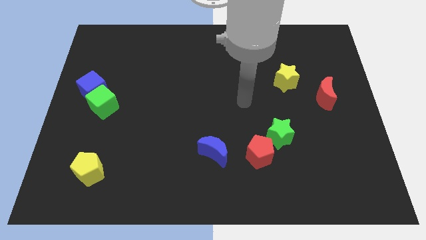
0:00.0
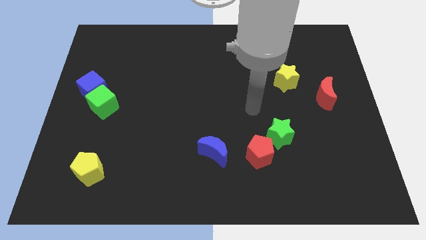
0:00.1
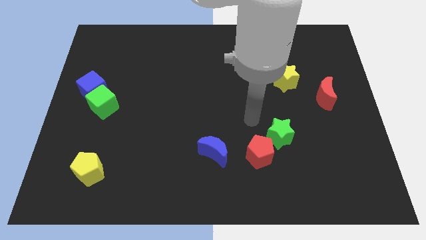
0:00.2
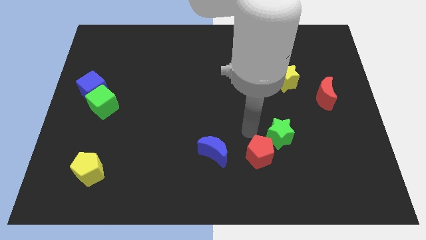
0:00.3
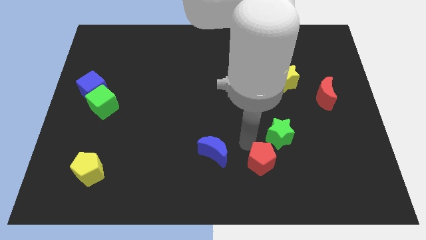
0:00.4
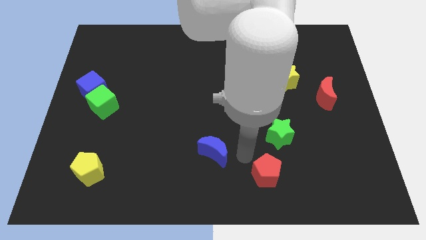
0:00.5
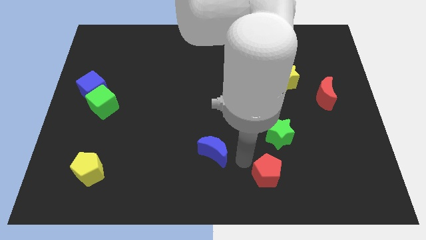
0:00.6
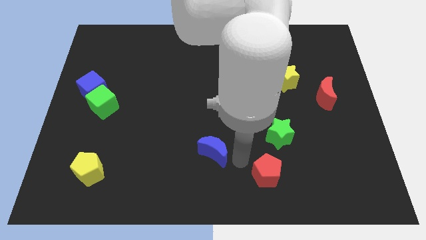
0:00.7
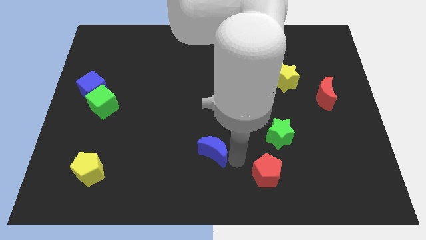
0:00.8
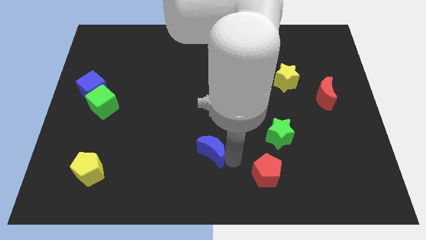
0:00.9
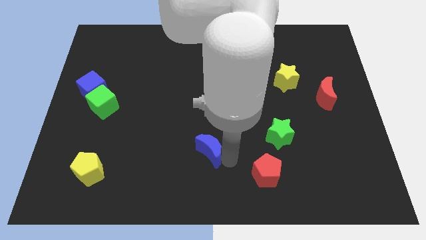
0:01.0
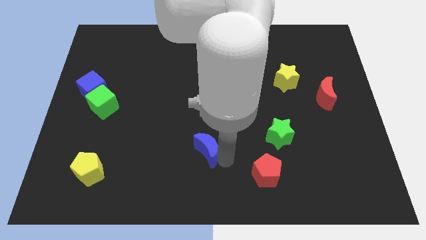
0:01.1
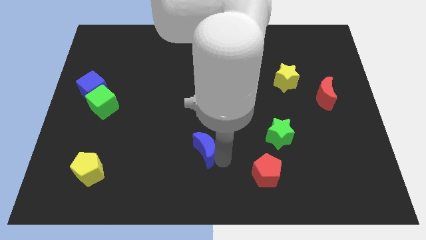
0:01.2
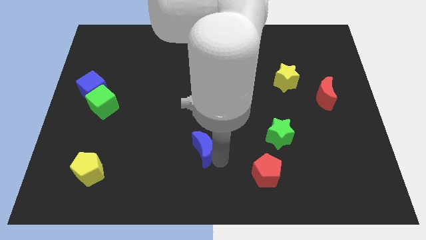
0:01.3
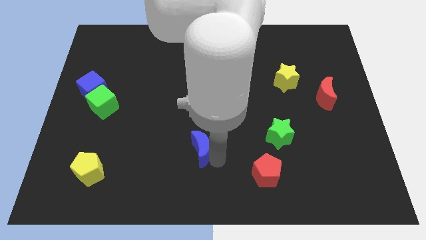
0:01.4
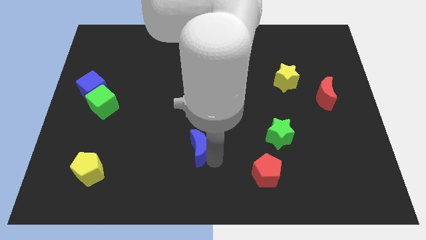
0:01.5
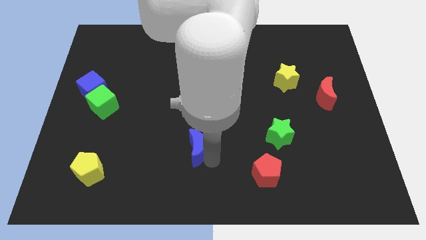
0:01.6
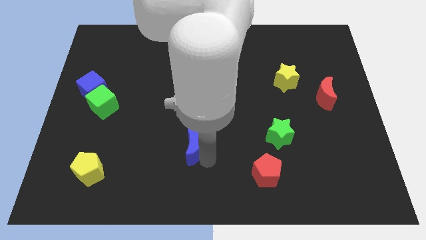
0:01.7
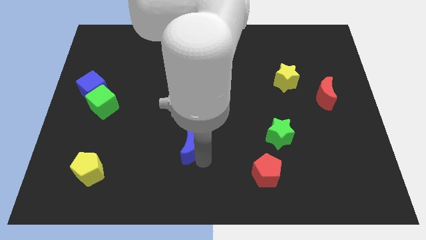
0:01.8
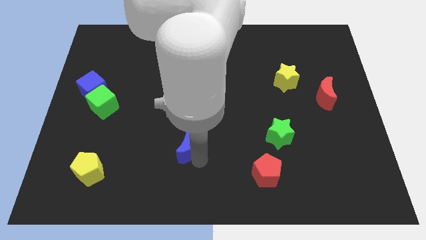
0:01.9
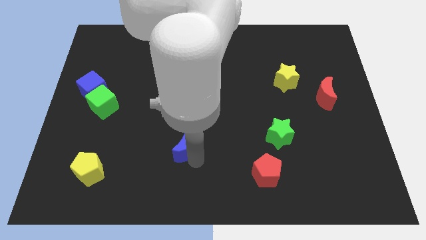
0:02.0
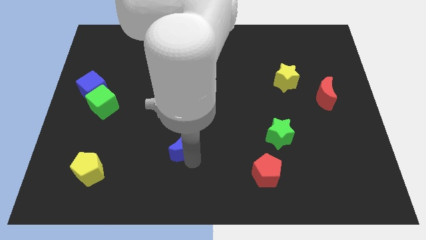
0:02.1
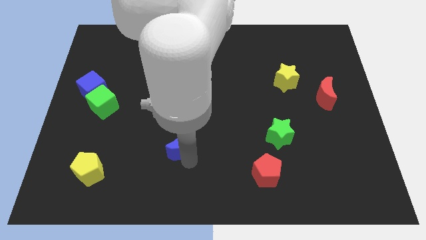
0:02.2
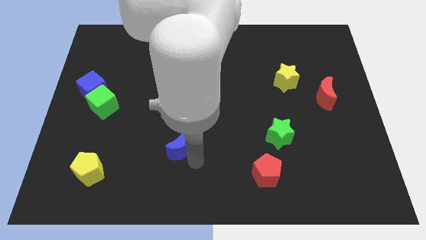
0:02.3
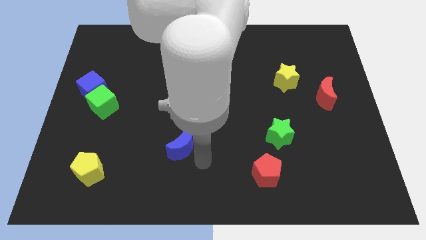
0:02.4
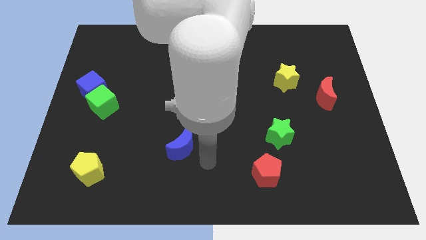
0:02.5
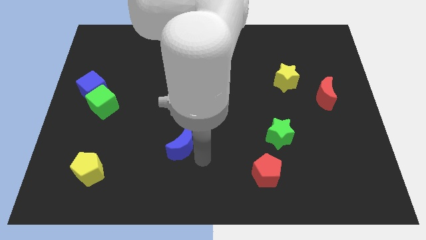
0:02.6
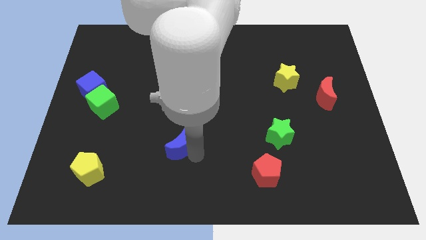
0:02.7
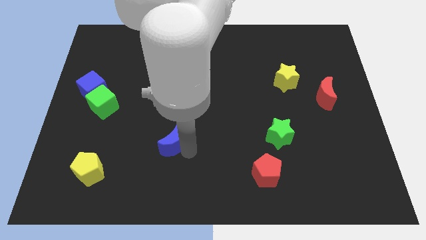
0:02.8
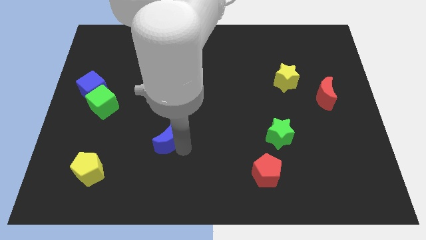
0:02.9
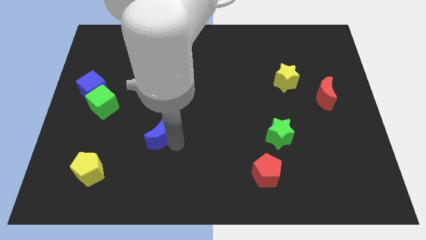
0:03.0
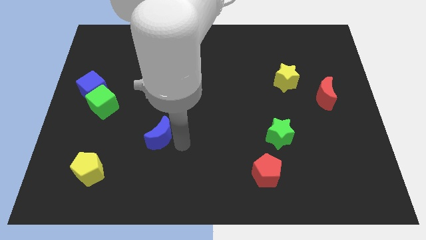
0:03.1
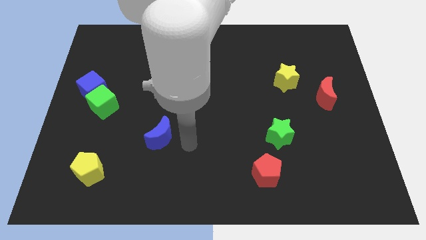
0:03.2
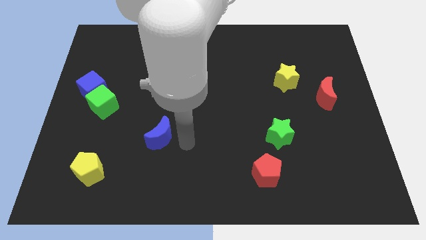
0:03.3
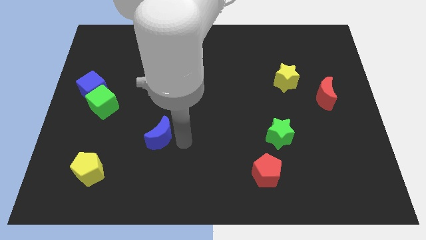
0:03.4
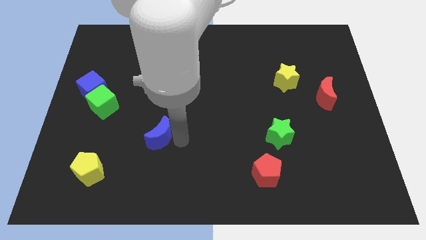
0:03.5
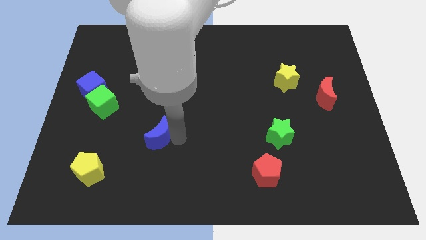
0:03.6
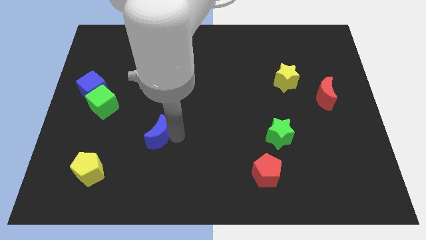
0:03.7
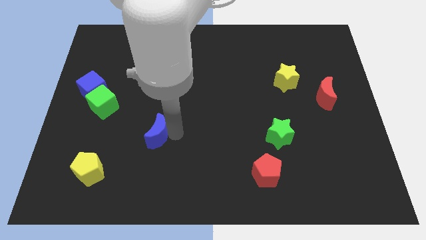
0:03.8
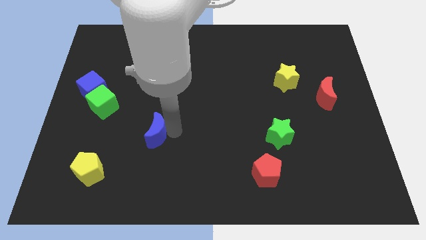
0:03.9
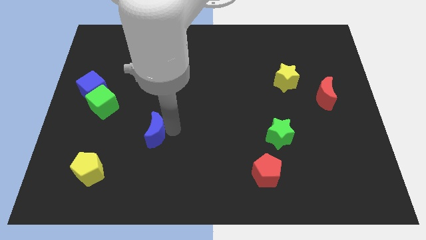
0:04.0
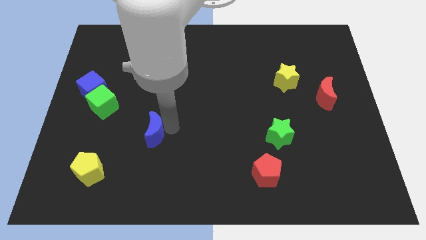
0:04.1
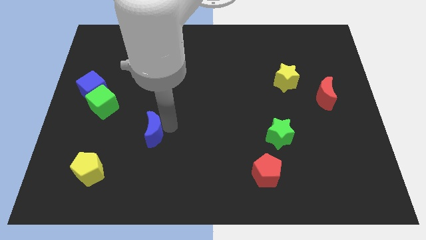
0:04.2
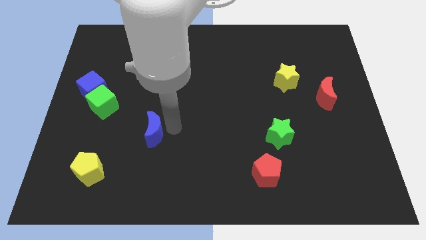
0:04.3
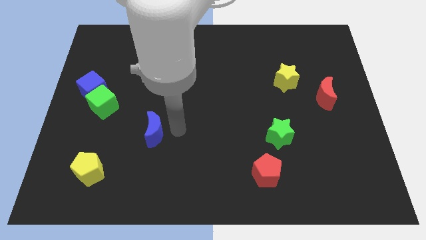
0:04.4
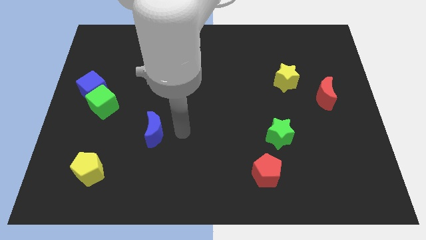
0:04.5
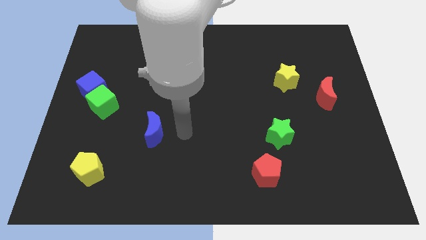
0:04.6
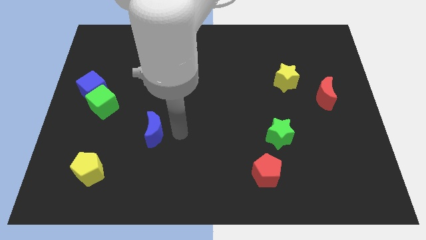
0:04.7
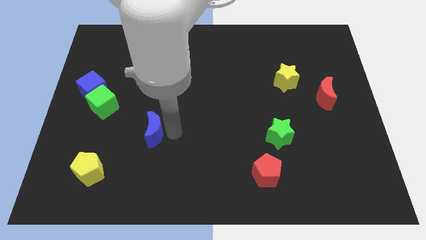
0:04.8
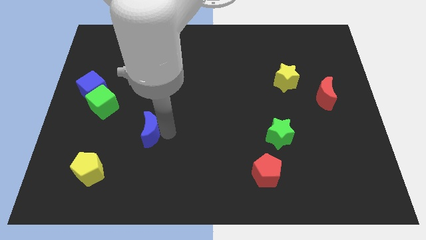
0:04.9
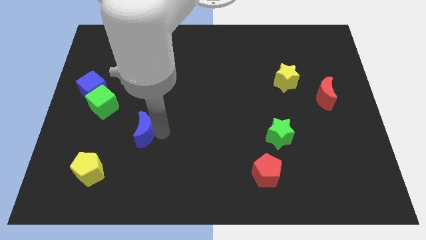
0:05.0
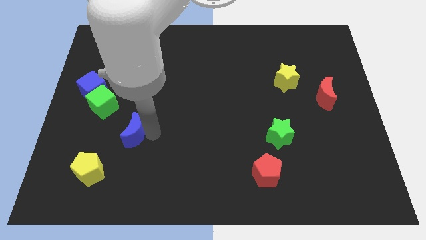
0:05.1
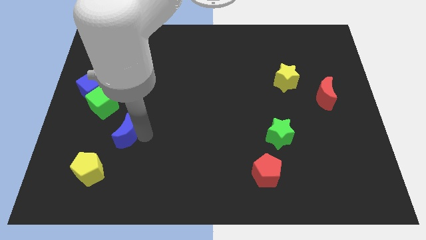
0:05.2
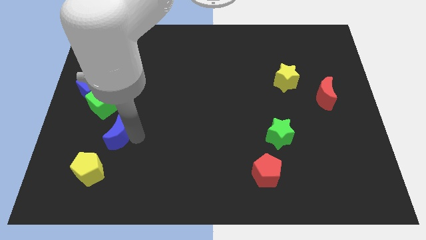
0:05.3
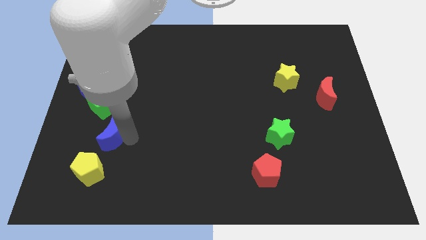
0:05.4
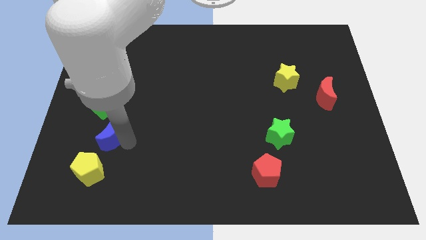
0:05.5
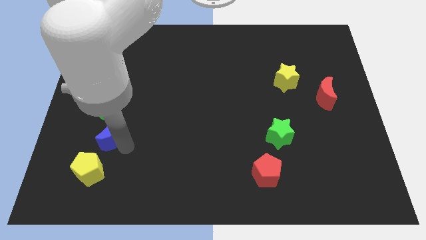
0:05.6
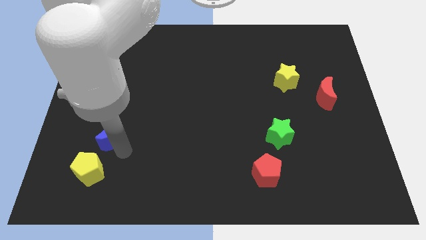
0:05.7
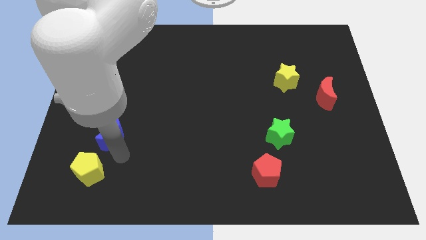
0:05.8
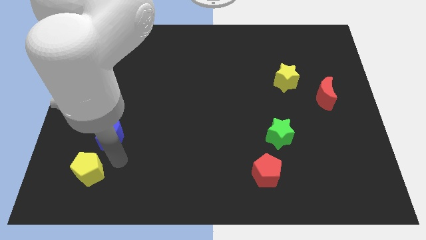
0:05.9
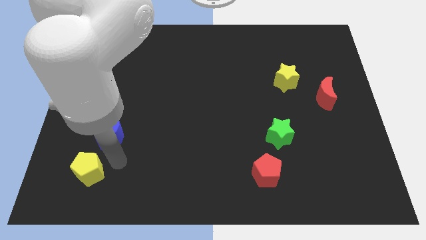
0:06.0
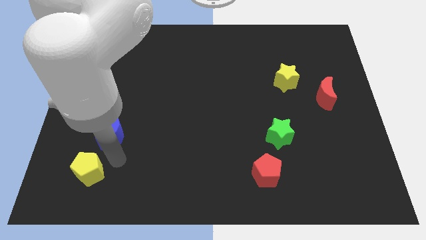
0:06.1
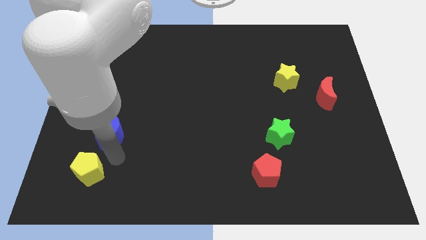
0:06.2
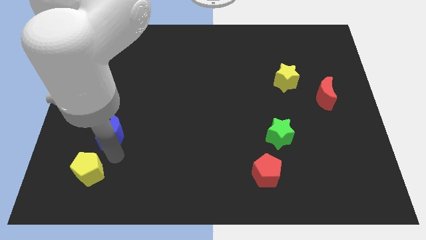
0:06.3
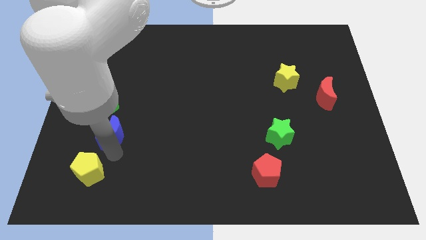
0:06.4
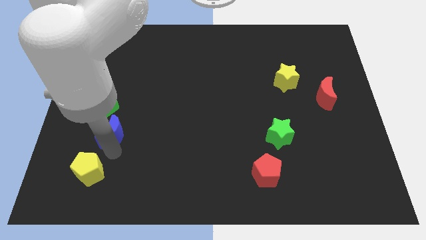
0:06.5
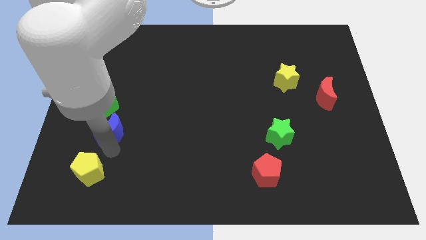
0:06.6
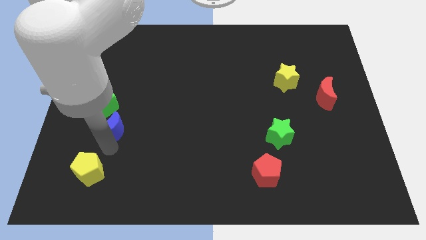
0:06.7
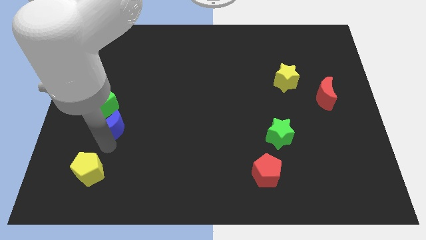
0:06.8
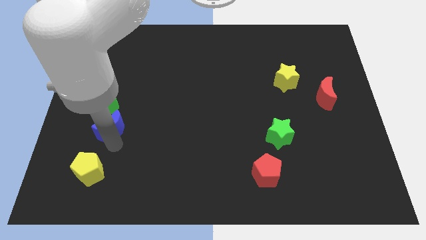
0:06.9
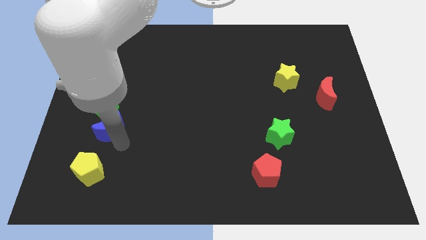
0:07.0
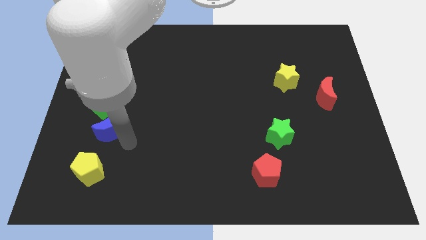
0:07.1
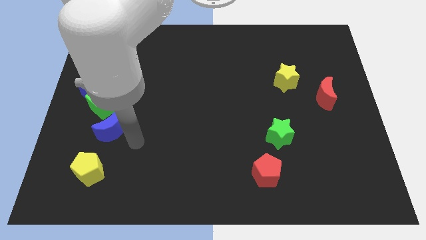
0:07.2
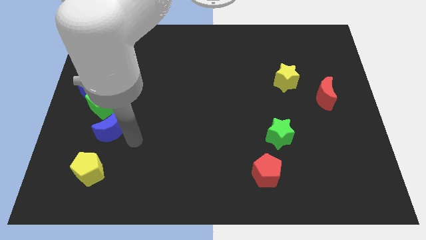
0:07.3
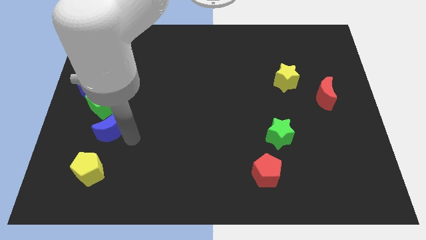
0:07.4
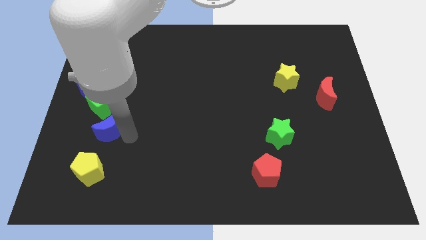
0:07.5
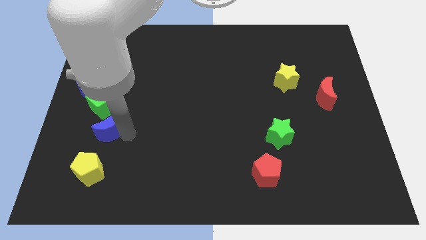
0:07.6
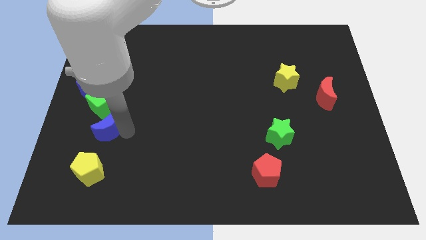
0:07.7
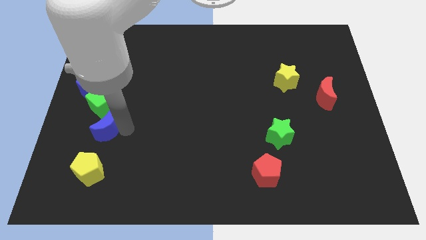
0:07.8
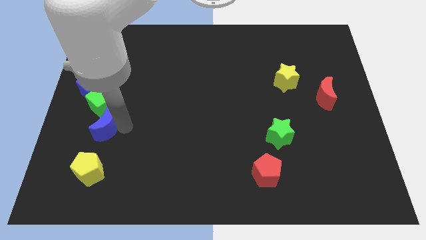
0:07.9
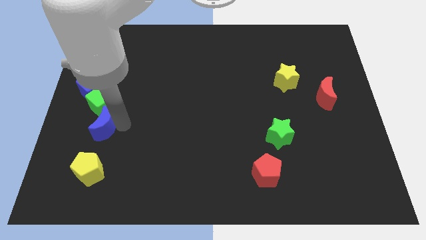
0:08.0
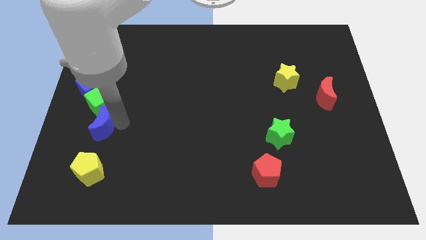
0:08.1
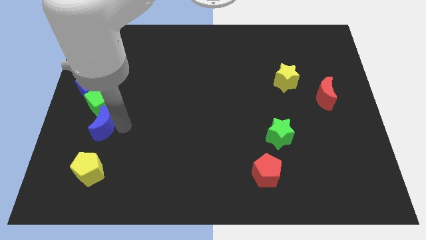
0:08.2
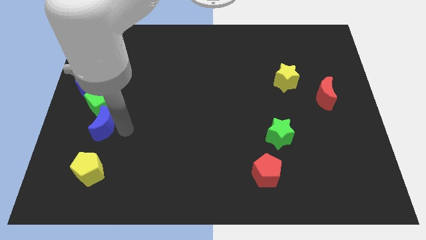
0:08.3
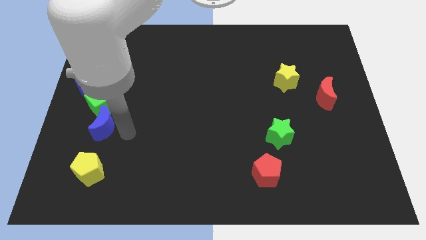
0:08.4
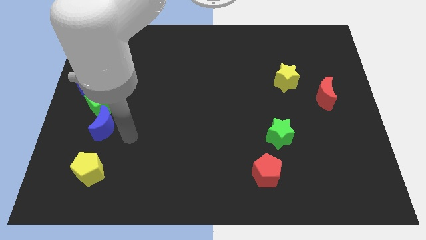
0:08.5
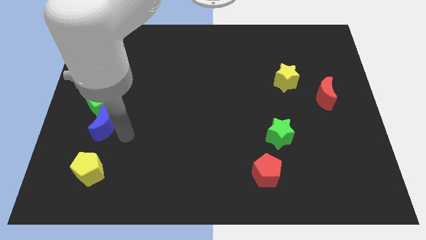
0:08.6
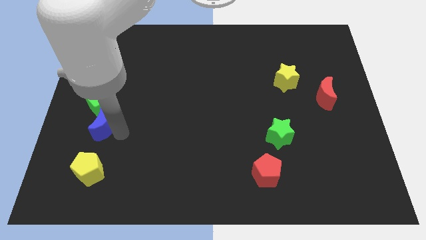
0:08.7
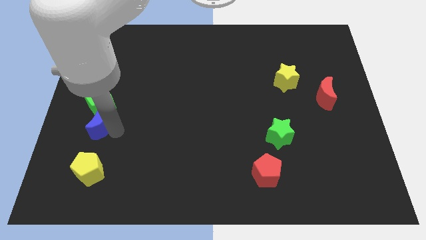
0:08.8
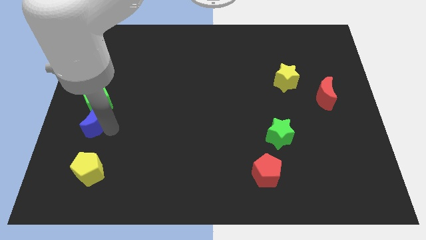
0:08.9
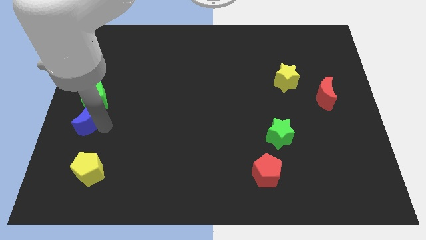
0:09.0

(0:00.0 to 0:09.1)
slide the blue moon to the center left
